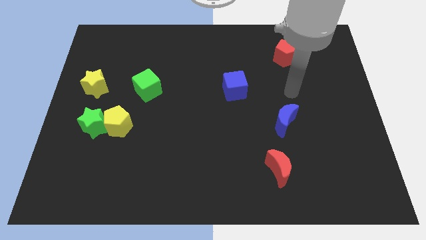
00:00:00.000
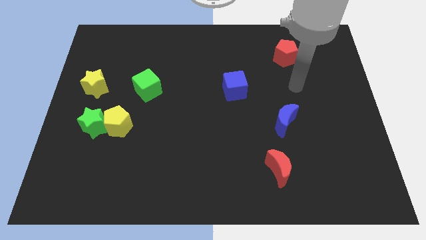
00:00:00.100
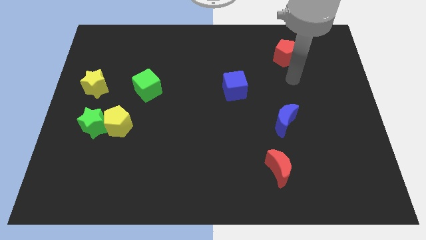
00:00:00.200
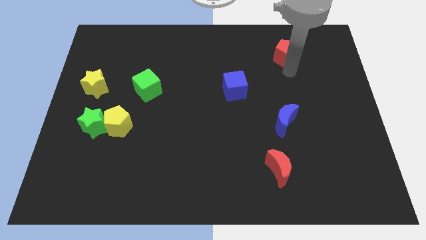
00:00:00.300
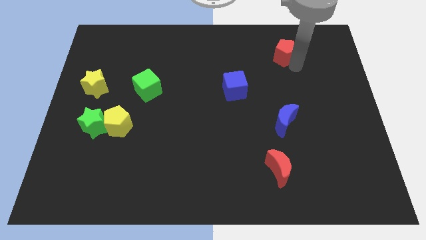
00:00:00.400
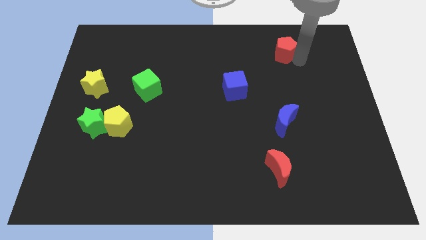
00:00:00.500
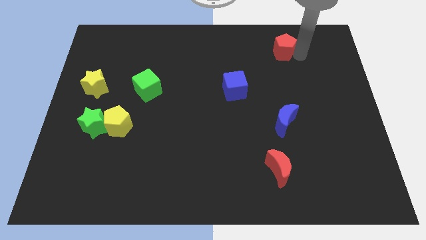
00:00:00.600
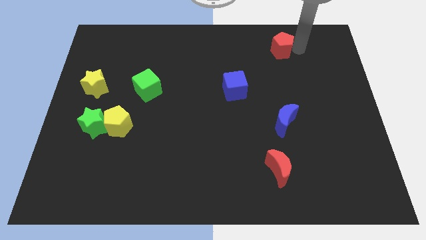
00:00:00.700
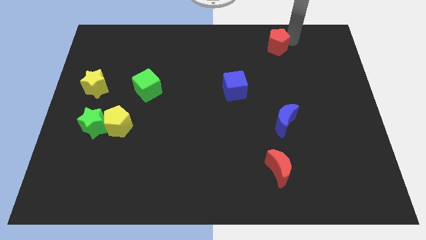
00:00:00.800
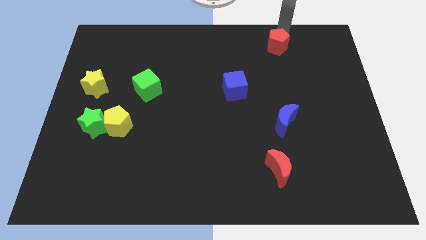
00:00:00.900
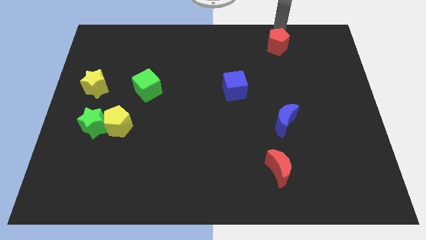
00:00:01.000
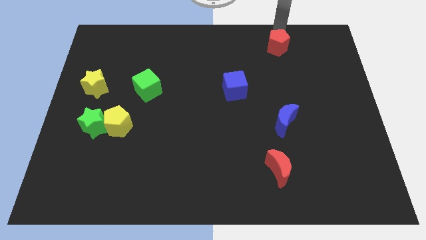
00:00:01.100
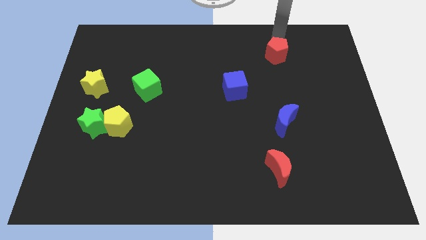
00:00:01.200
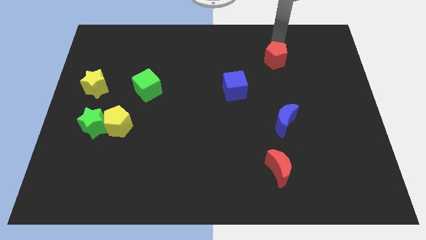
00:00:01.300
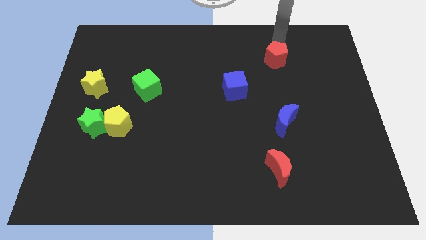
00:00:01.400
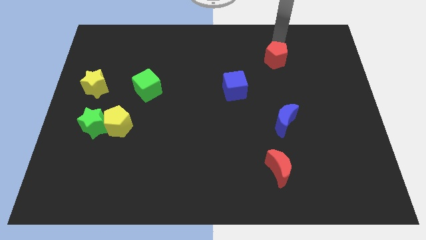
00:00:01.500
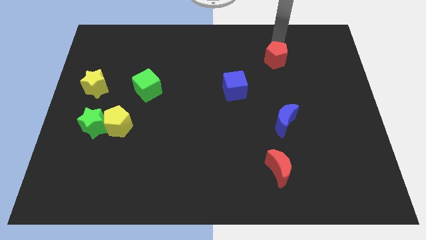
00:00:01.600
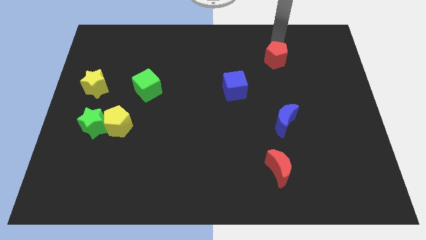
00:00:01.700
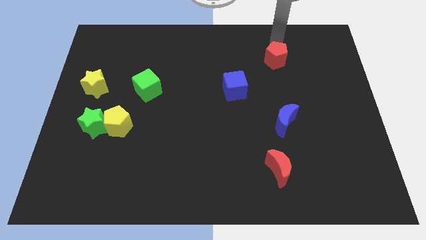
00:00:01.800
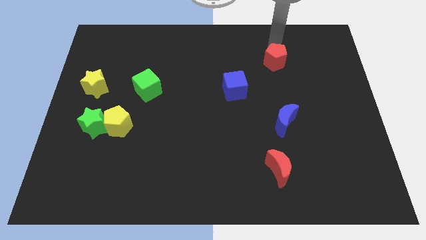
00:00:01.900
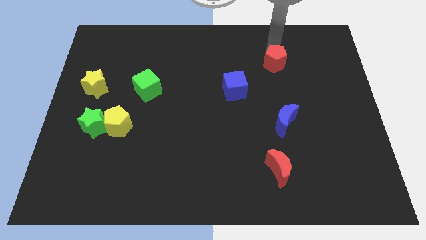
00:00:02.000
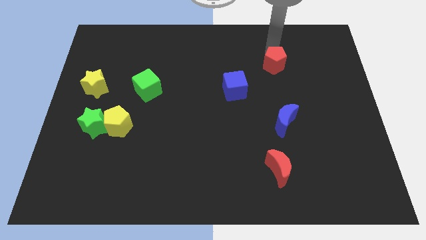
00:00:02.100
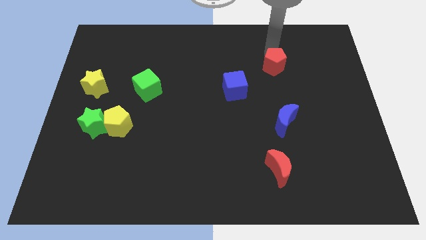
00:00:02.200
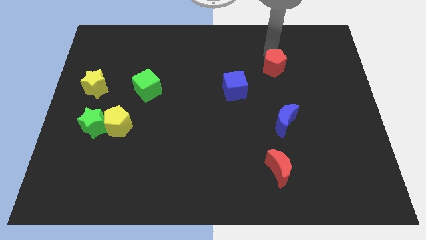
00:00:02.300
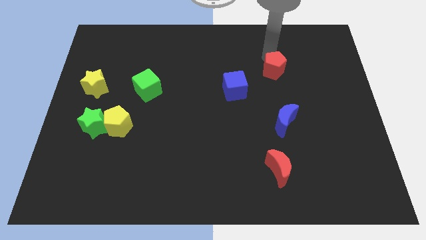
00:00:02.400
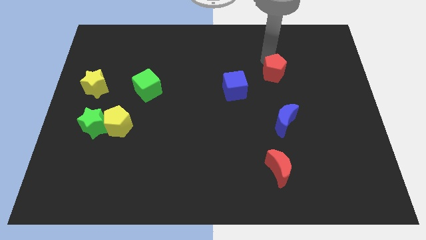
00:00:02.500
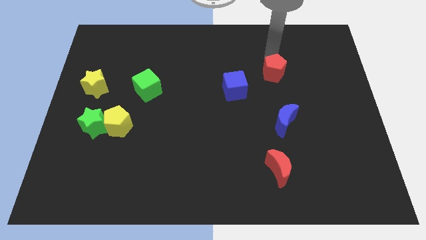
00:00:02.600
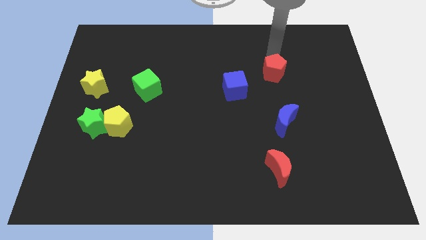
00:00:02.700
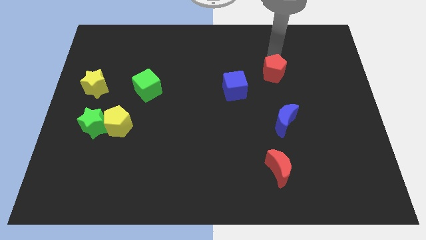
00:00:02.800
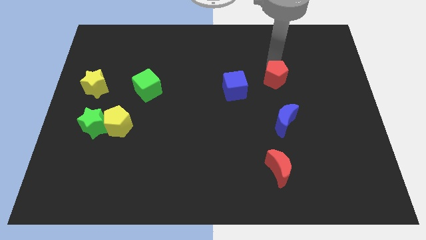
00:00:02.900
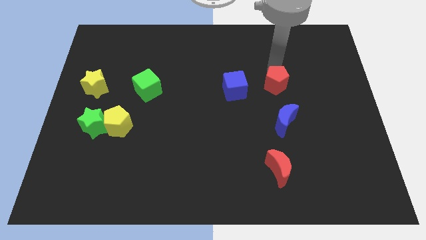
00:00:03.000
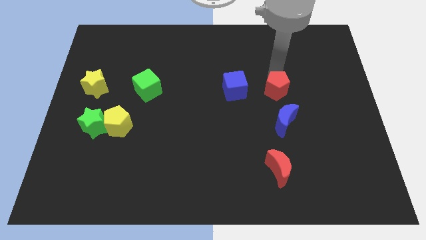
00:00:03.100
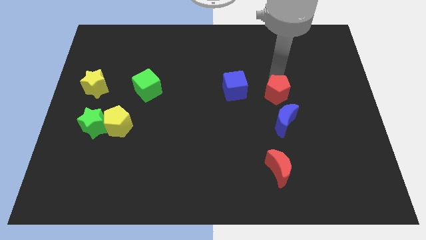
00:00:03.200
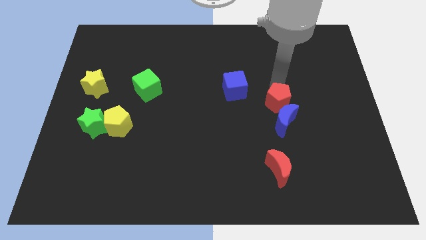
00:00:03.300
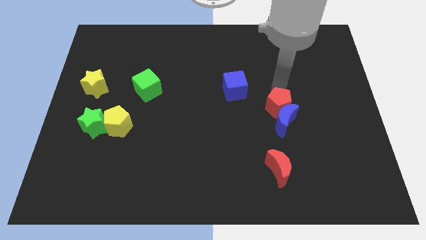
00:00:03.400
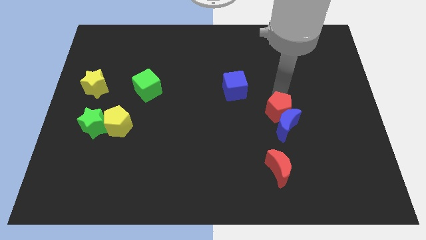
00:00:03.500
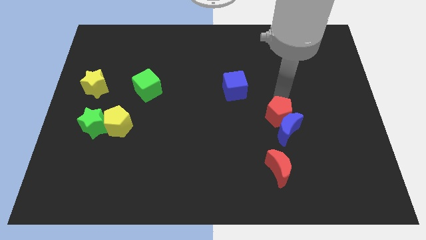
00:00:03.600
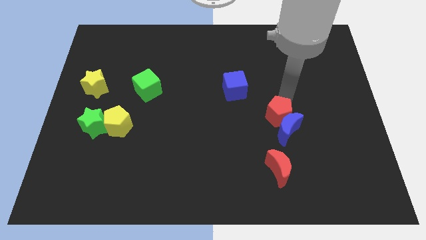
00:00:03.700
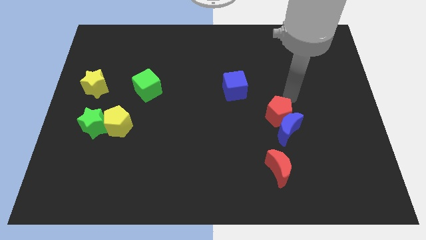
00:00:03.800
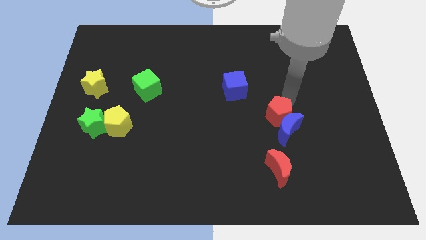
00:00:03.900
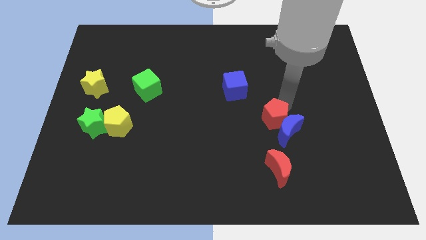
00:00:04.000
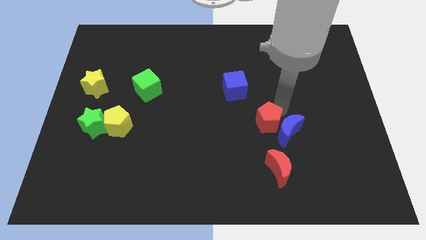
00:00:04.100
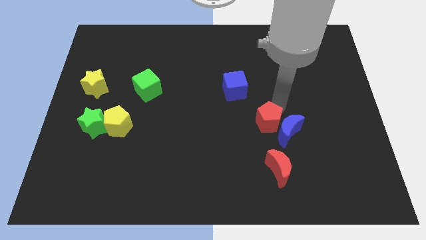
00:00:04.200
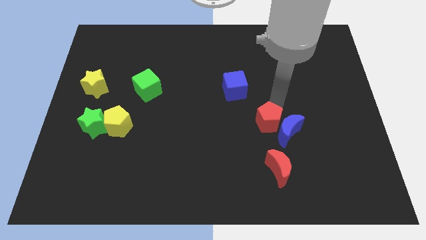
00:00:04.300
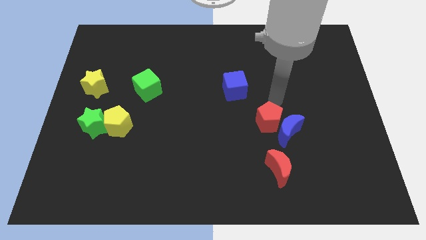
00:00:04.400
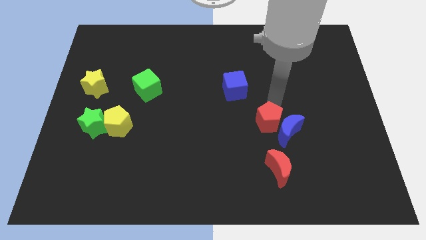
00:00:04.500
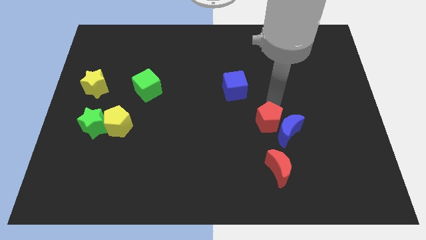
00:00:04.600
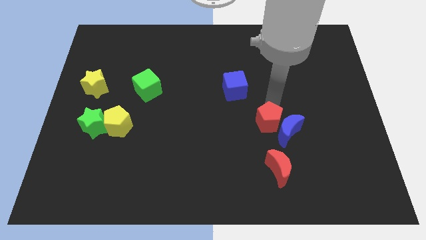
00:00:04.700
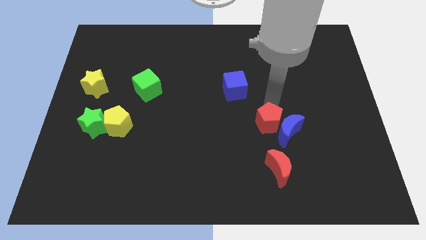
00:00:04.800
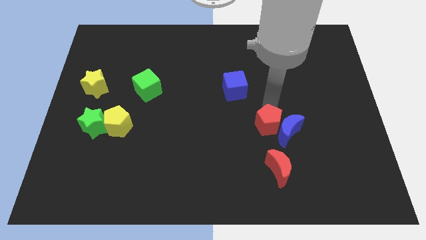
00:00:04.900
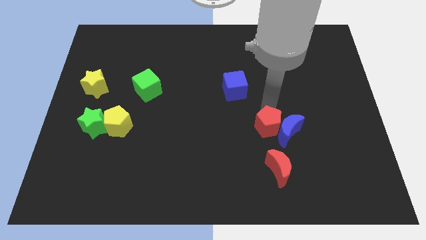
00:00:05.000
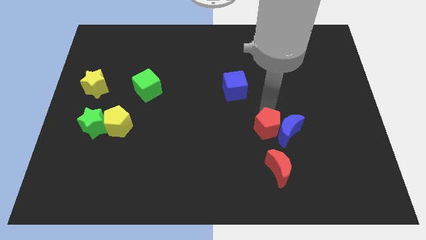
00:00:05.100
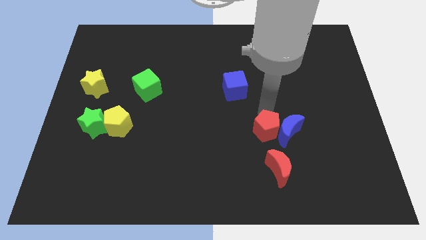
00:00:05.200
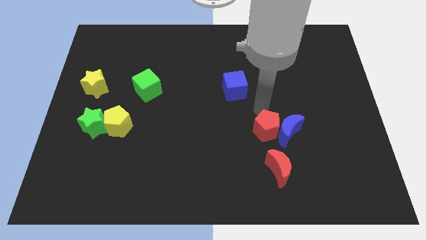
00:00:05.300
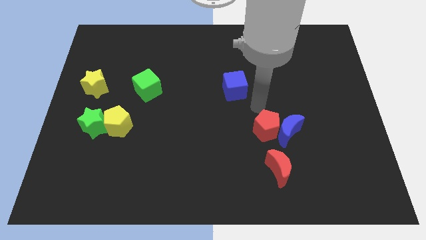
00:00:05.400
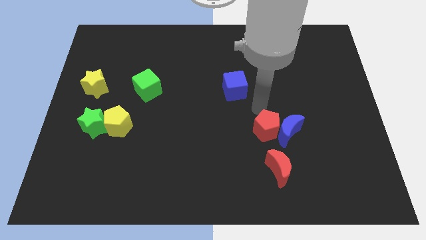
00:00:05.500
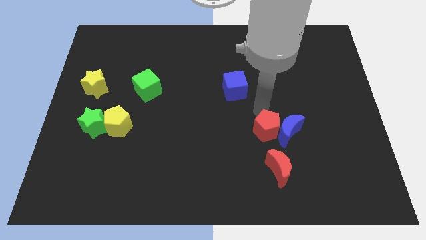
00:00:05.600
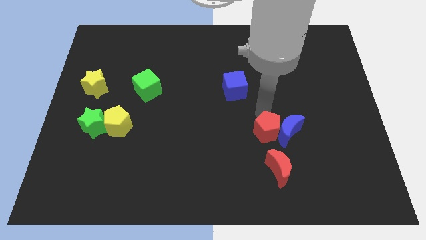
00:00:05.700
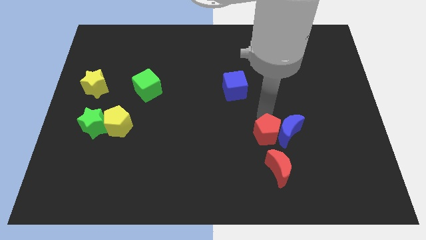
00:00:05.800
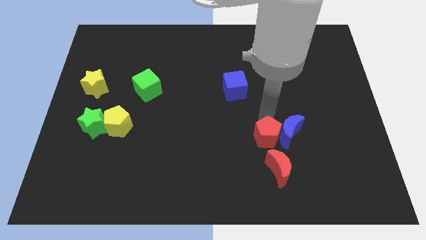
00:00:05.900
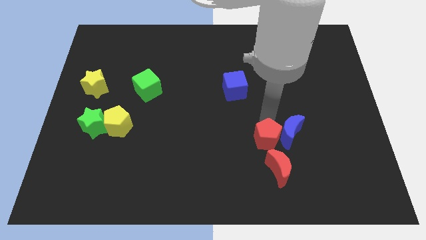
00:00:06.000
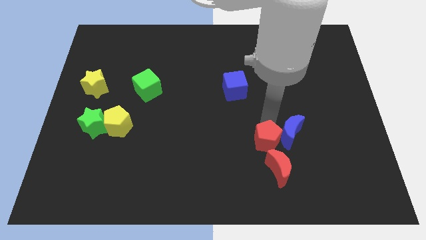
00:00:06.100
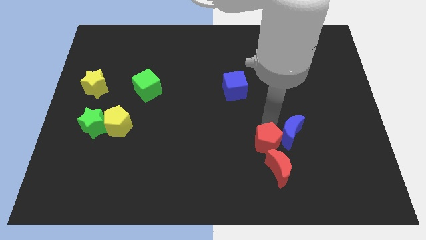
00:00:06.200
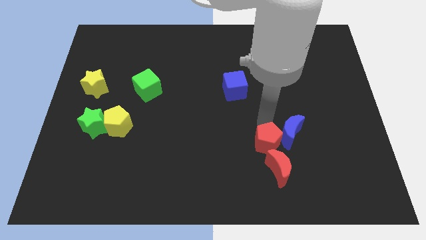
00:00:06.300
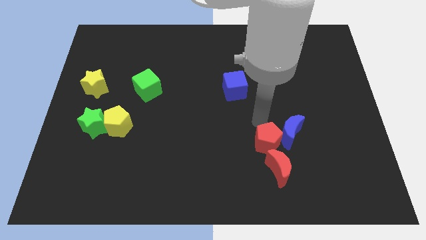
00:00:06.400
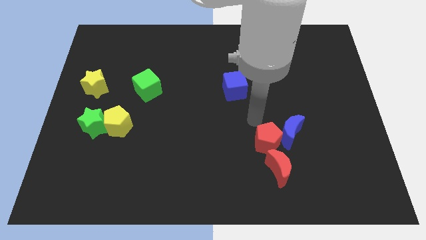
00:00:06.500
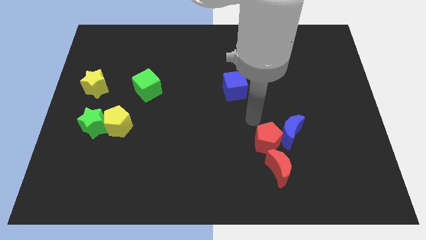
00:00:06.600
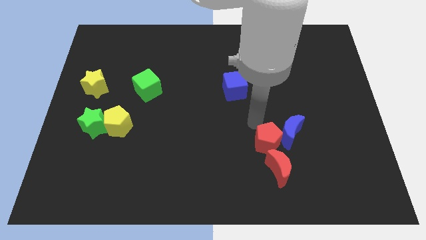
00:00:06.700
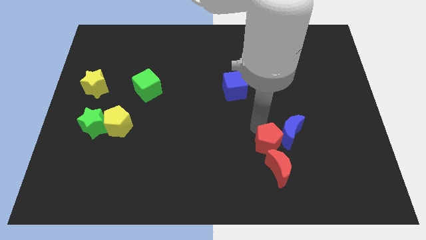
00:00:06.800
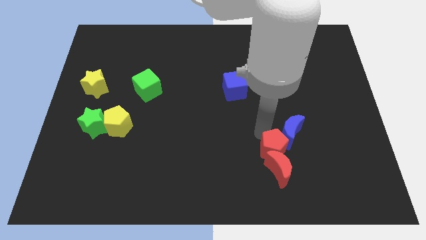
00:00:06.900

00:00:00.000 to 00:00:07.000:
slide the red pentagon to the red moon
